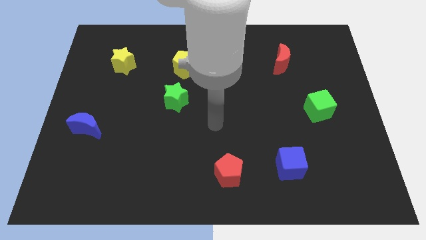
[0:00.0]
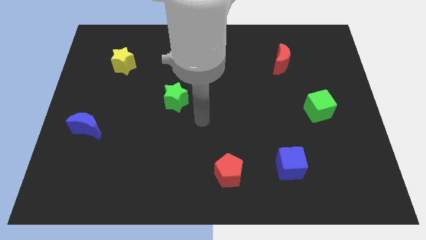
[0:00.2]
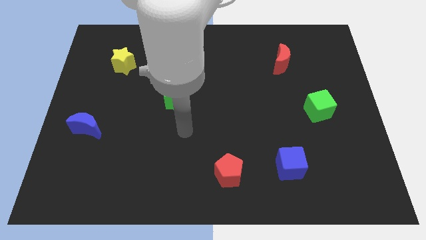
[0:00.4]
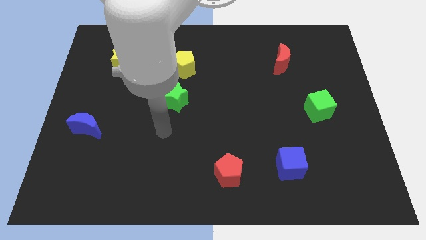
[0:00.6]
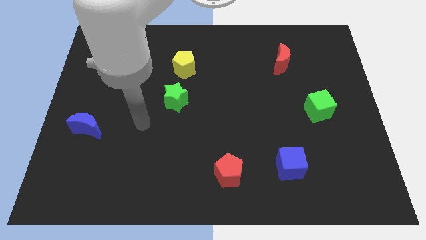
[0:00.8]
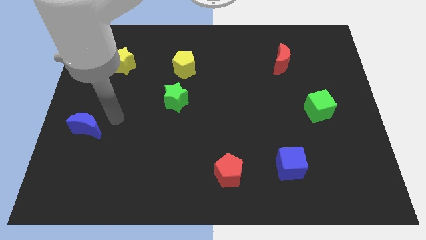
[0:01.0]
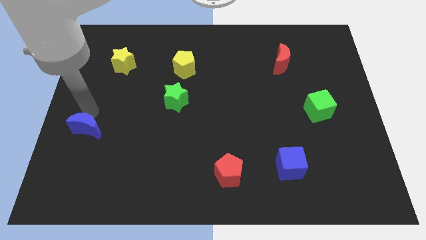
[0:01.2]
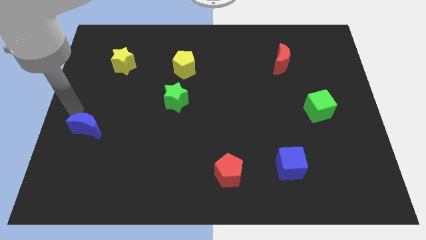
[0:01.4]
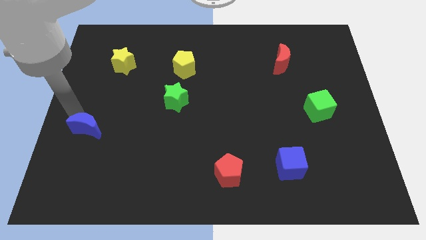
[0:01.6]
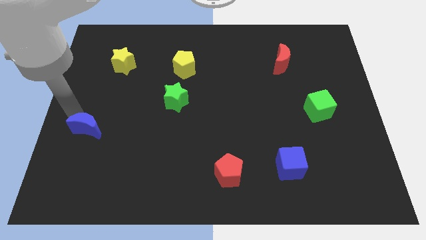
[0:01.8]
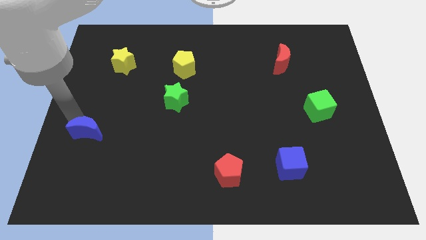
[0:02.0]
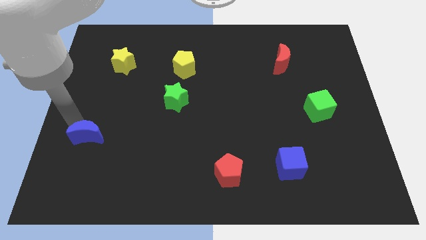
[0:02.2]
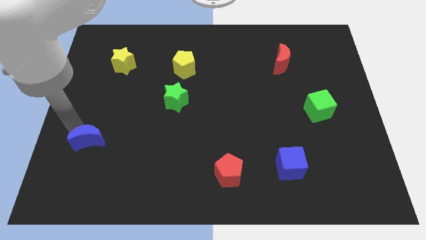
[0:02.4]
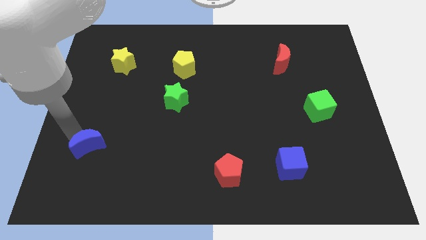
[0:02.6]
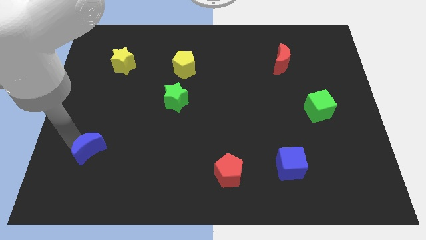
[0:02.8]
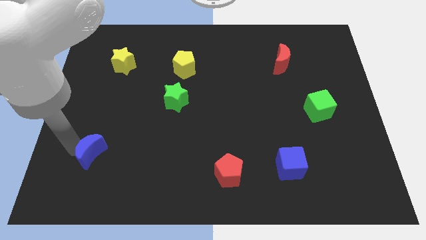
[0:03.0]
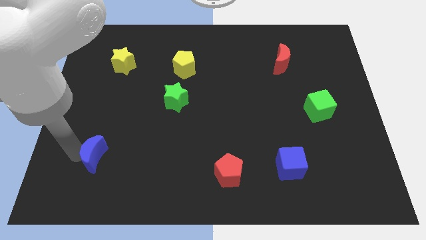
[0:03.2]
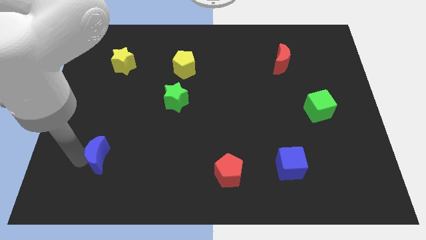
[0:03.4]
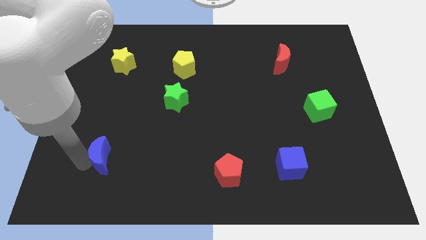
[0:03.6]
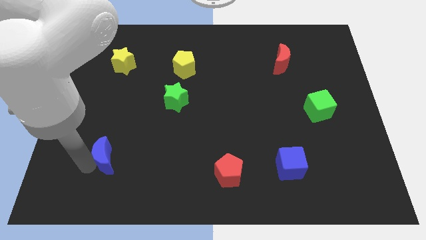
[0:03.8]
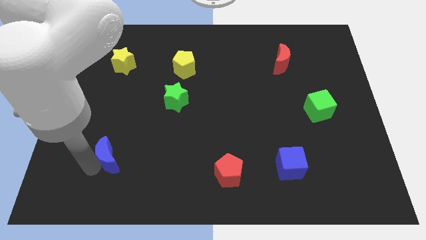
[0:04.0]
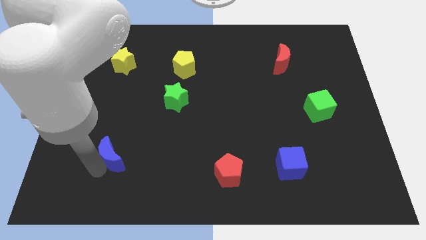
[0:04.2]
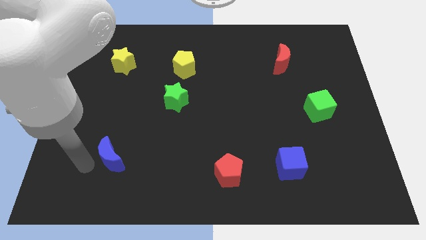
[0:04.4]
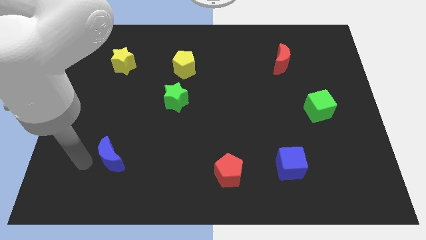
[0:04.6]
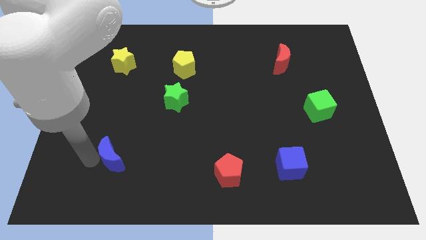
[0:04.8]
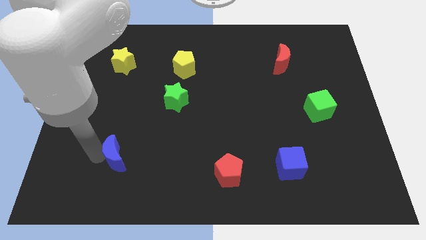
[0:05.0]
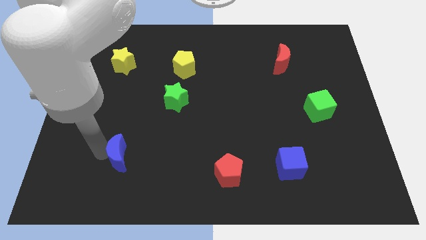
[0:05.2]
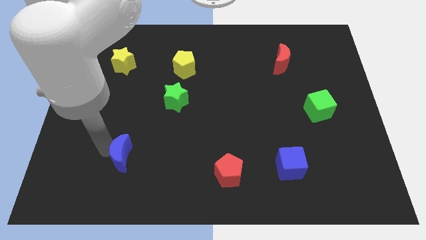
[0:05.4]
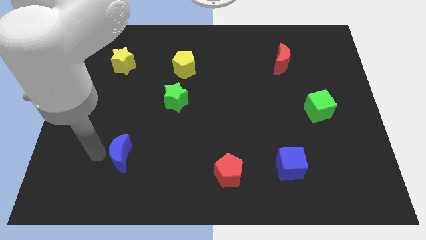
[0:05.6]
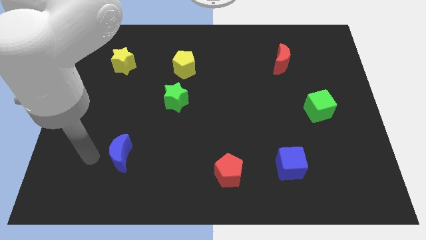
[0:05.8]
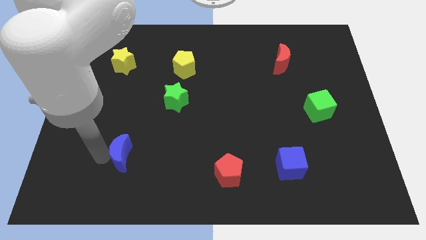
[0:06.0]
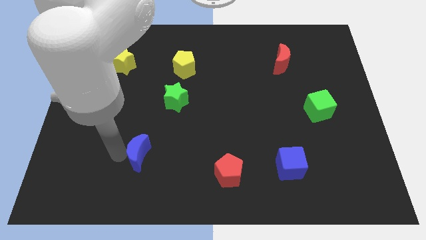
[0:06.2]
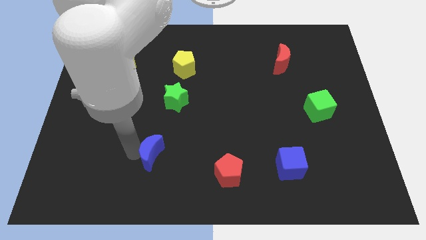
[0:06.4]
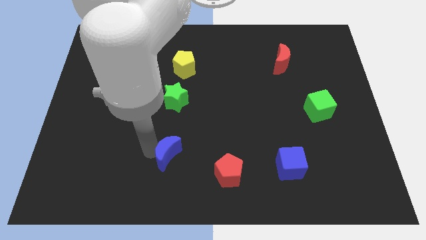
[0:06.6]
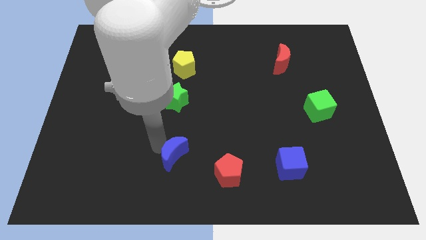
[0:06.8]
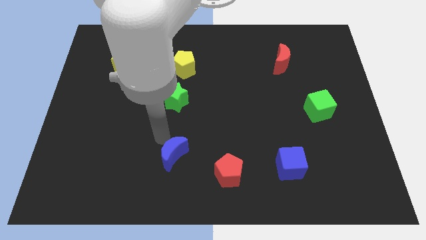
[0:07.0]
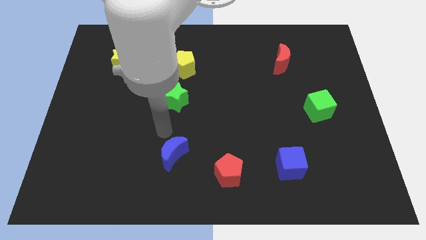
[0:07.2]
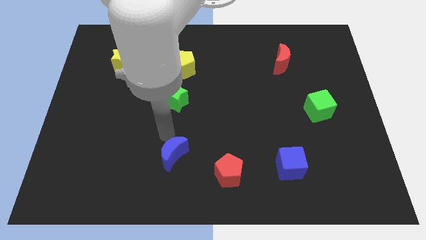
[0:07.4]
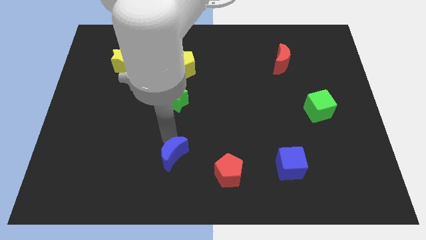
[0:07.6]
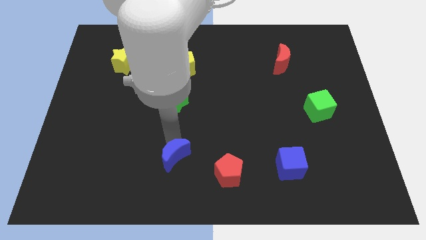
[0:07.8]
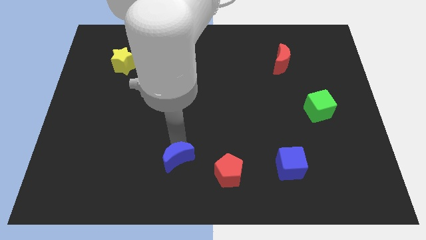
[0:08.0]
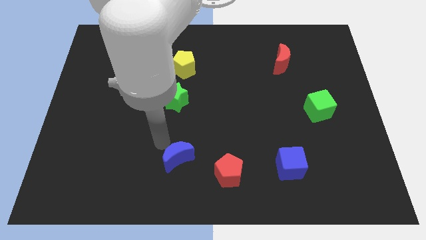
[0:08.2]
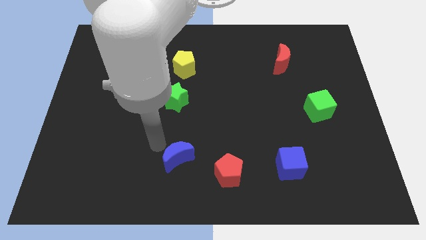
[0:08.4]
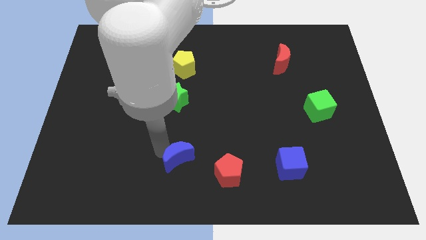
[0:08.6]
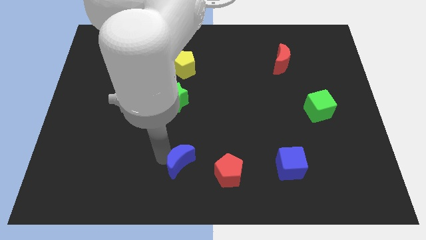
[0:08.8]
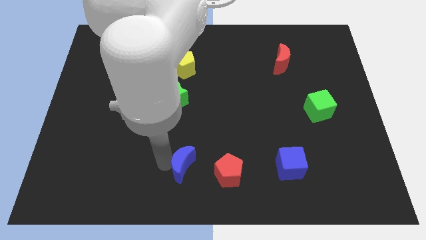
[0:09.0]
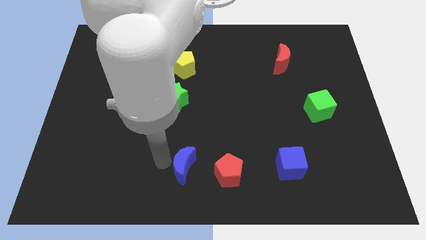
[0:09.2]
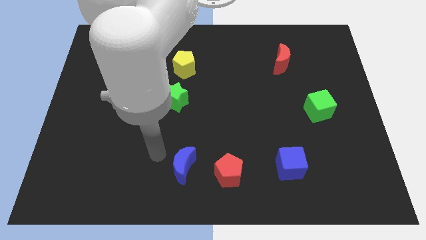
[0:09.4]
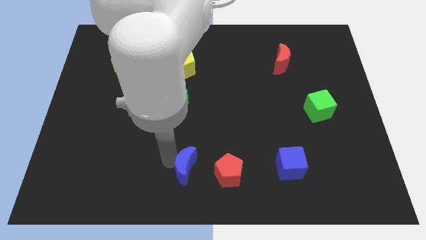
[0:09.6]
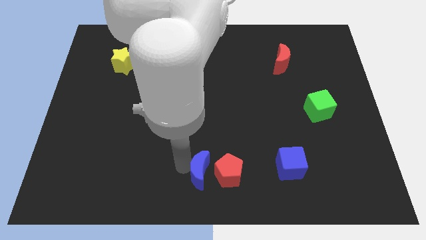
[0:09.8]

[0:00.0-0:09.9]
push the blue moon next to the red pentagon

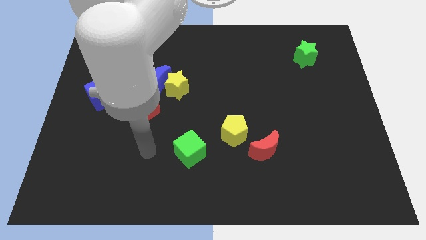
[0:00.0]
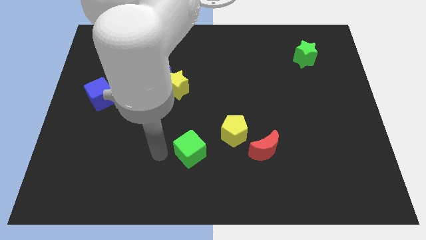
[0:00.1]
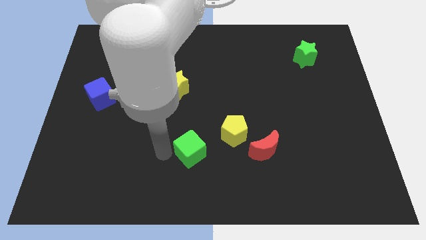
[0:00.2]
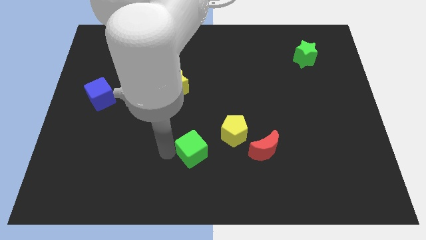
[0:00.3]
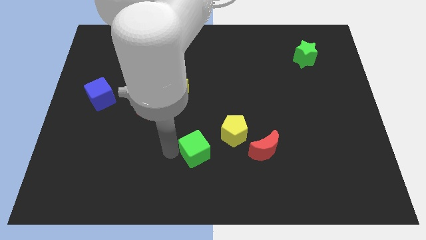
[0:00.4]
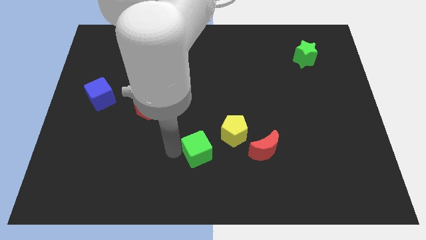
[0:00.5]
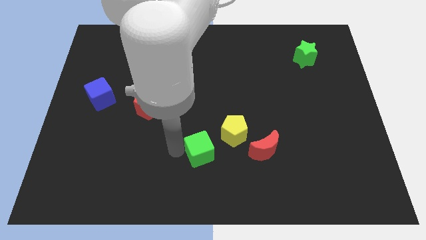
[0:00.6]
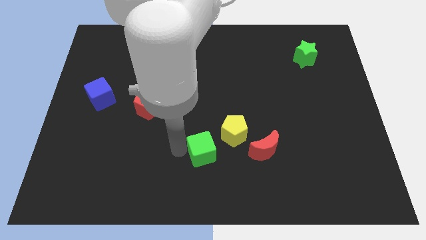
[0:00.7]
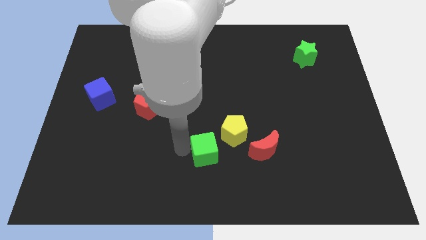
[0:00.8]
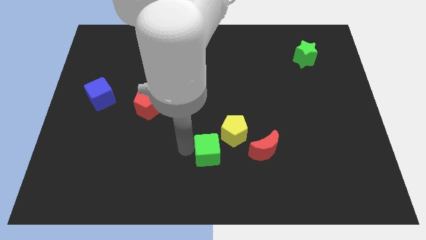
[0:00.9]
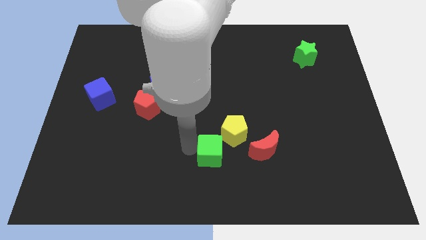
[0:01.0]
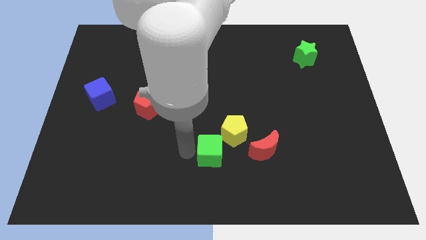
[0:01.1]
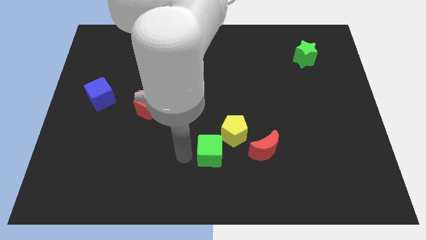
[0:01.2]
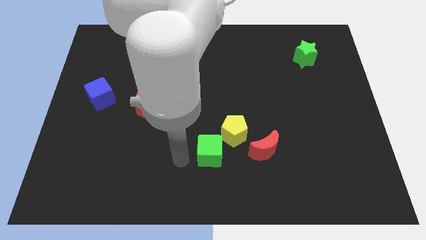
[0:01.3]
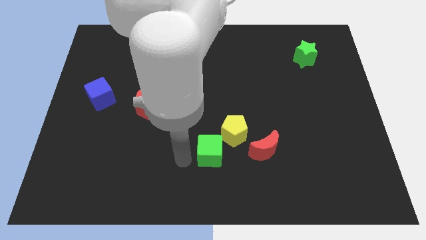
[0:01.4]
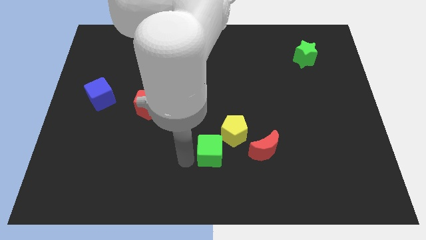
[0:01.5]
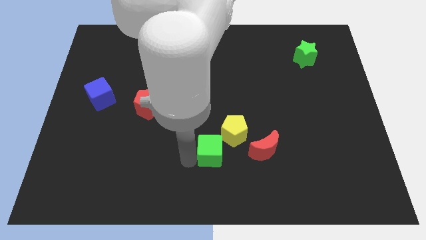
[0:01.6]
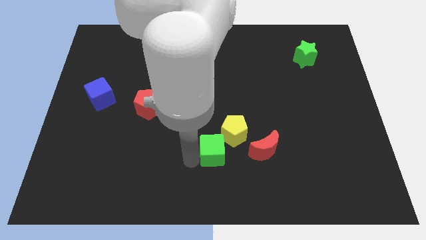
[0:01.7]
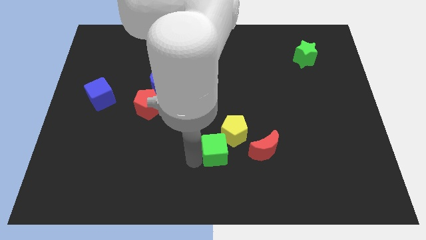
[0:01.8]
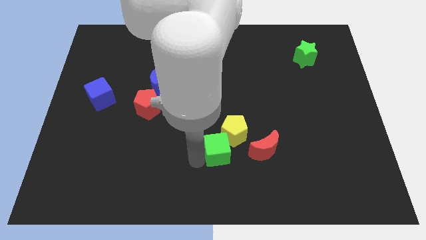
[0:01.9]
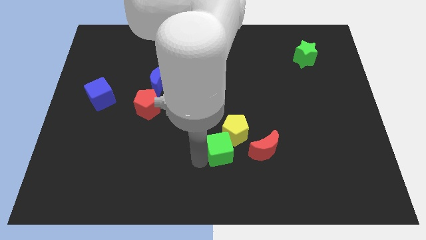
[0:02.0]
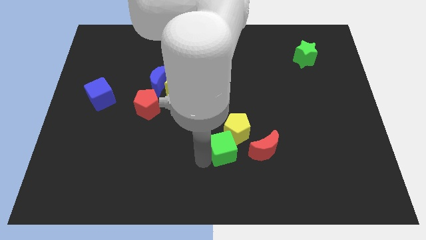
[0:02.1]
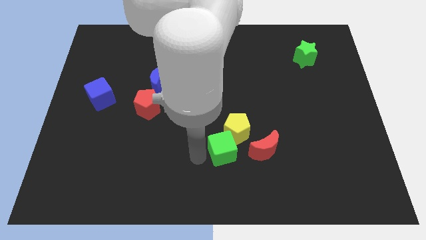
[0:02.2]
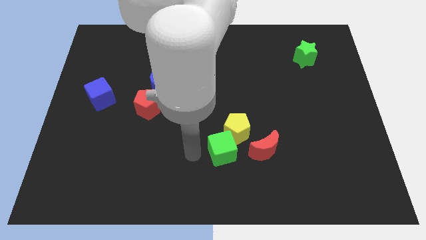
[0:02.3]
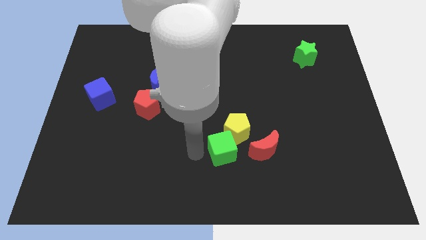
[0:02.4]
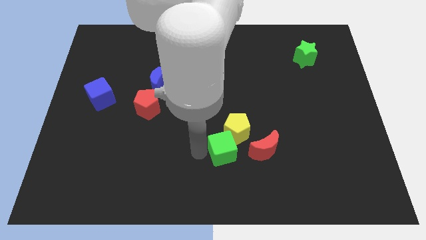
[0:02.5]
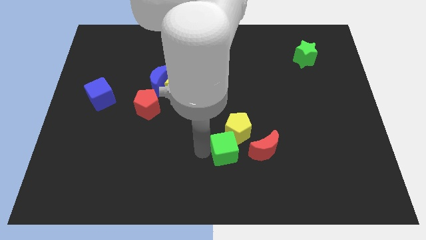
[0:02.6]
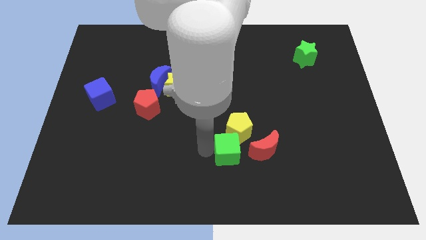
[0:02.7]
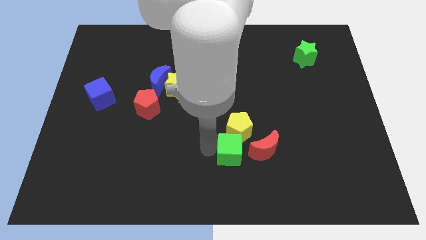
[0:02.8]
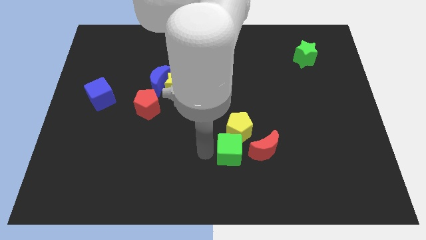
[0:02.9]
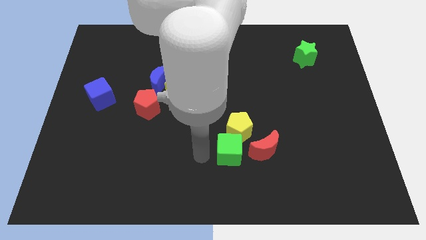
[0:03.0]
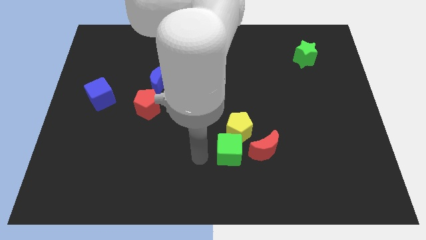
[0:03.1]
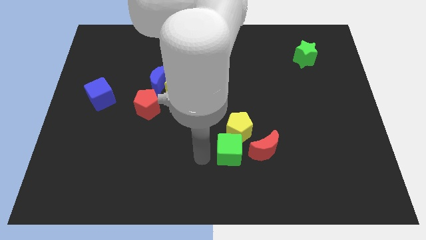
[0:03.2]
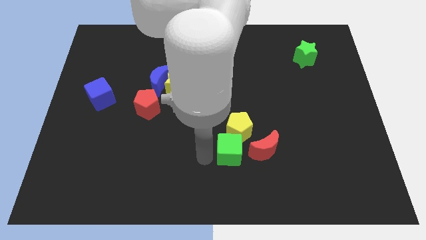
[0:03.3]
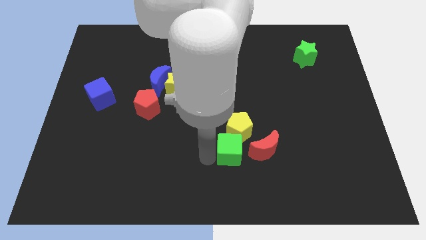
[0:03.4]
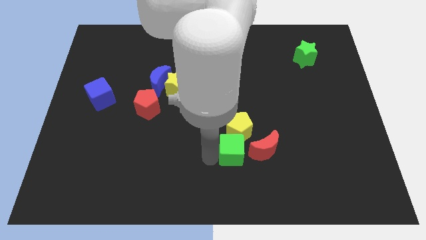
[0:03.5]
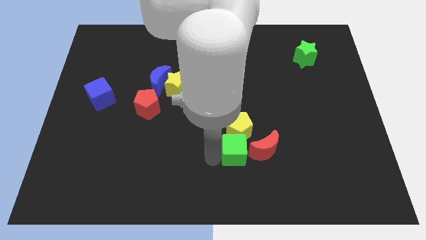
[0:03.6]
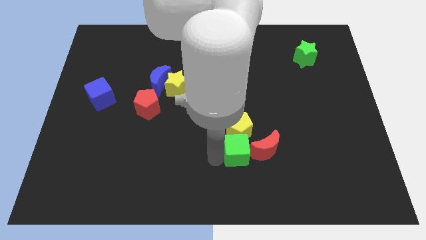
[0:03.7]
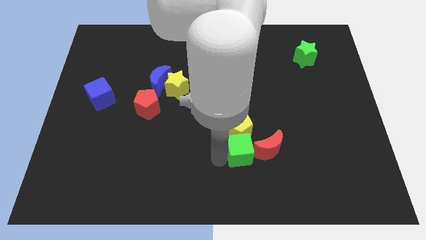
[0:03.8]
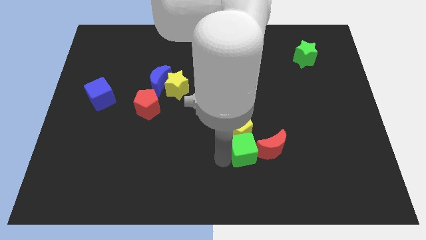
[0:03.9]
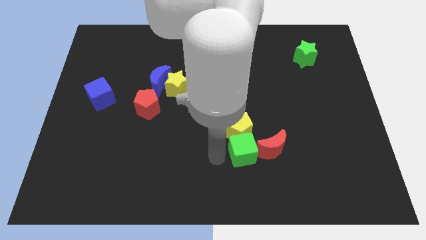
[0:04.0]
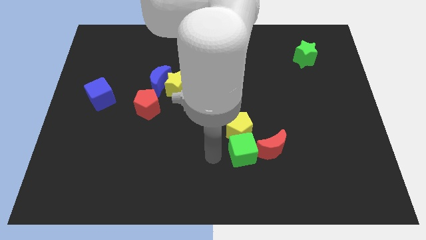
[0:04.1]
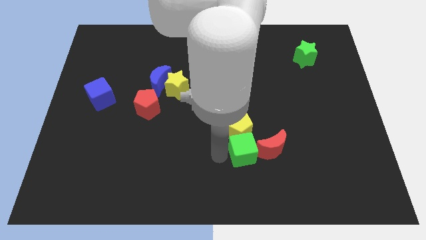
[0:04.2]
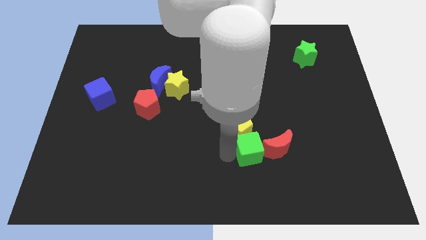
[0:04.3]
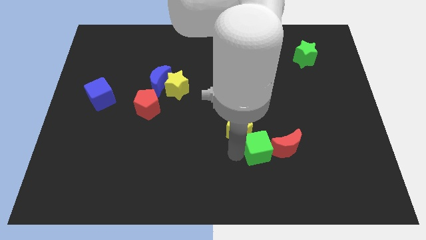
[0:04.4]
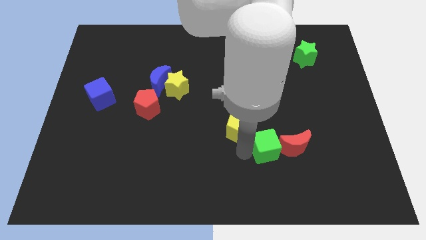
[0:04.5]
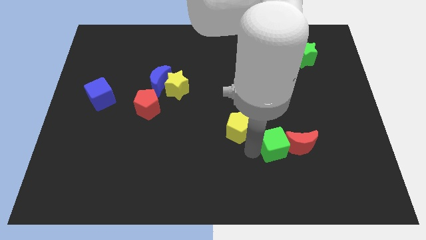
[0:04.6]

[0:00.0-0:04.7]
slide the green cube next to the red moon
